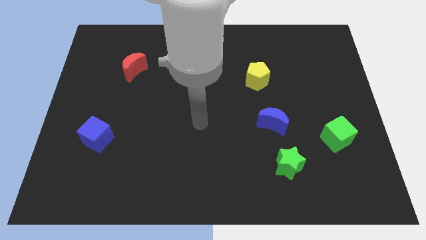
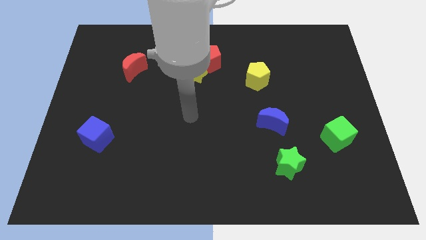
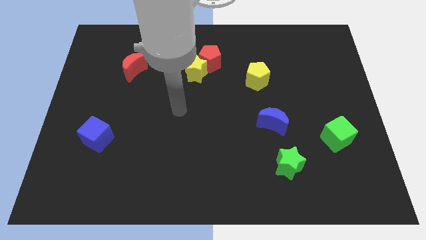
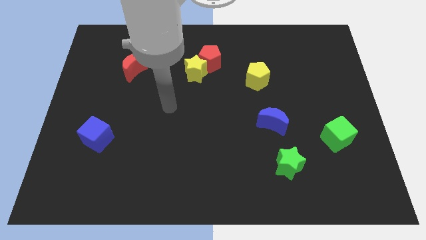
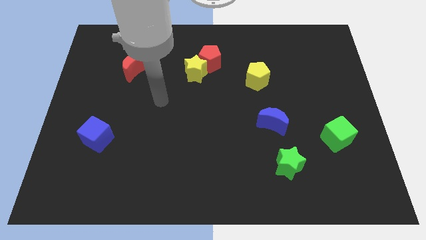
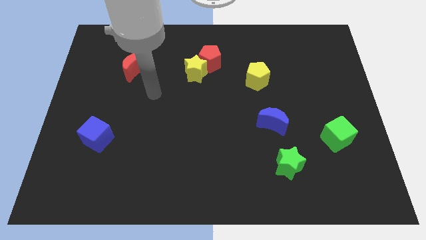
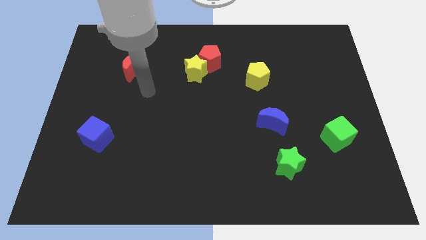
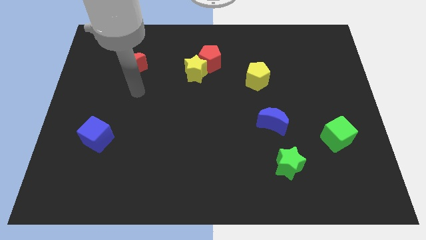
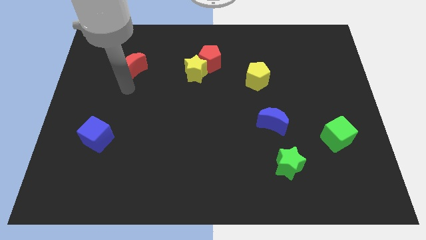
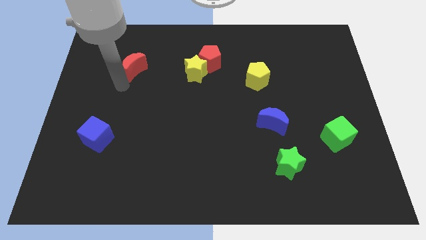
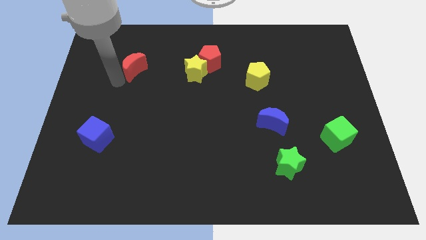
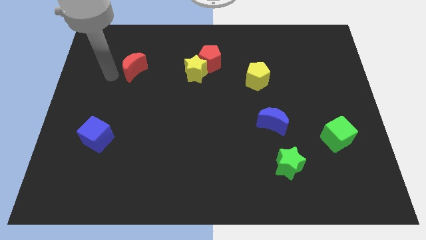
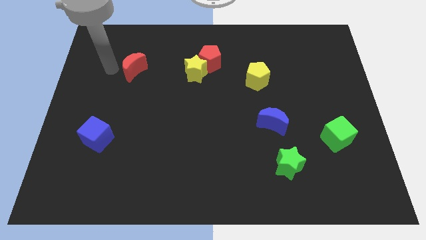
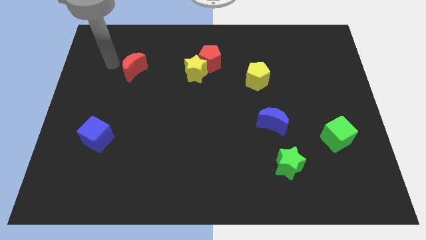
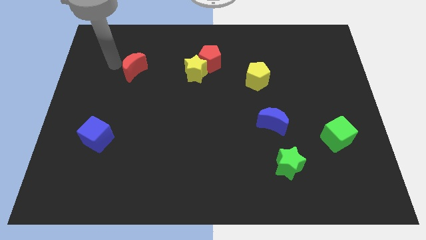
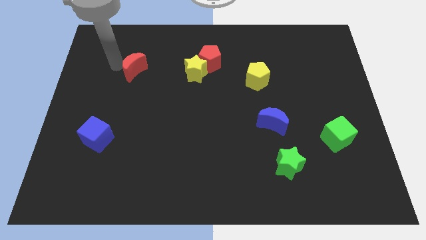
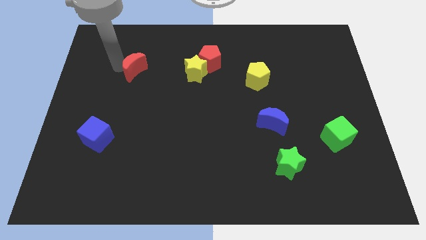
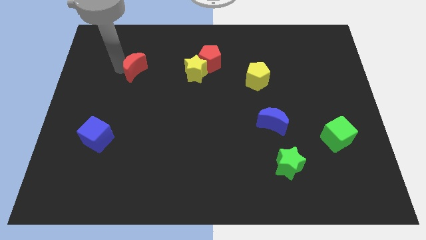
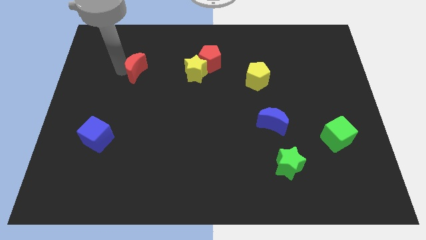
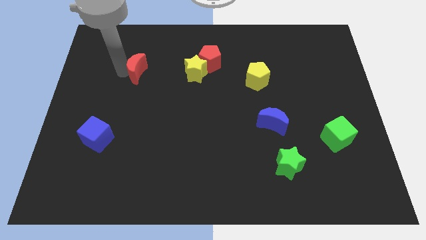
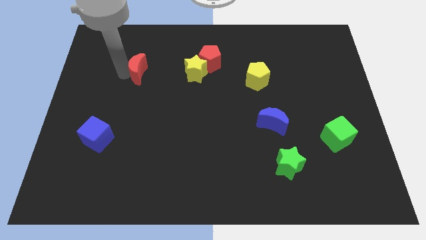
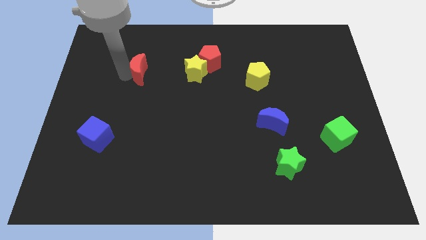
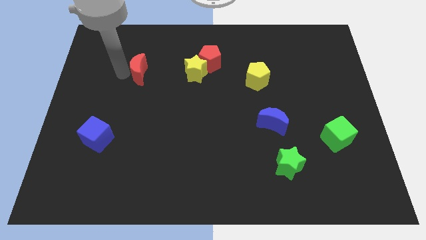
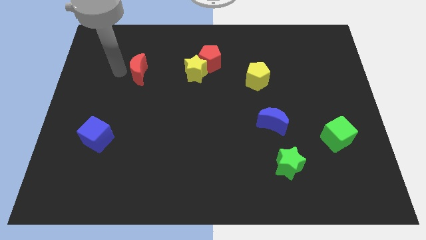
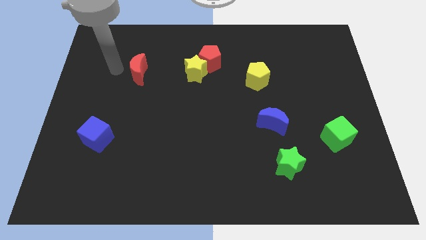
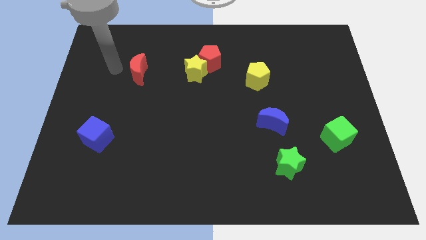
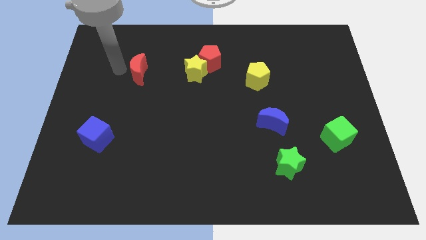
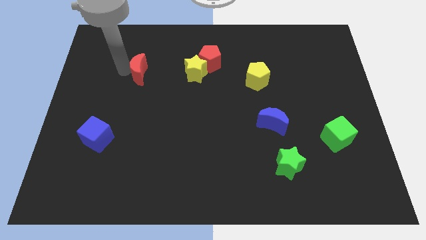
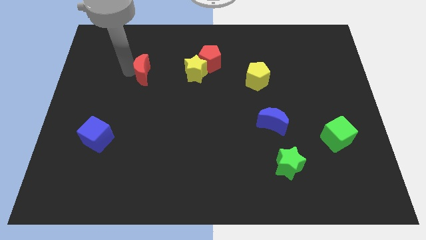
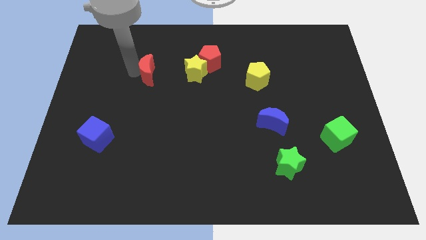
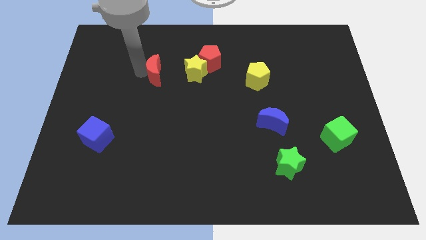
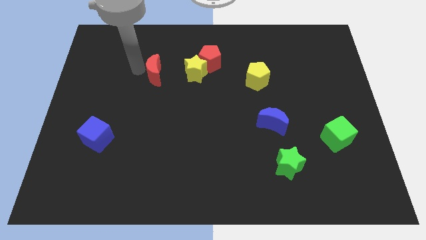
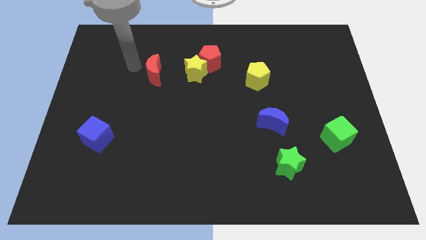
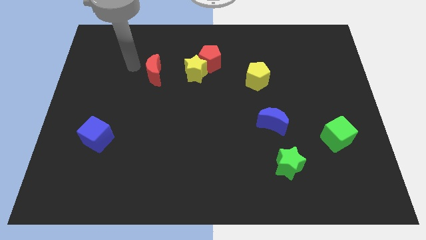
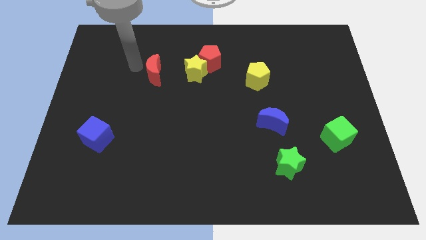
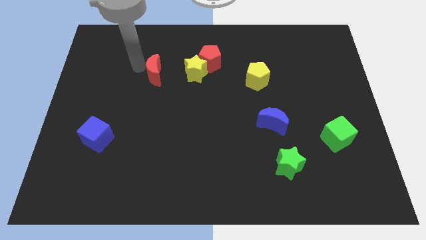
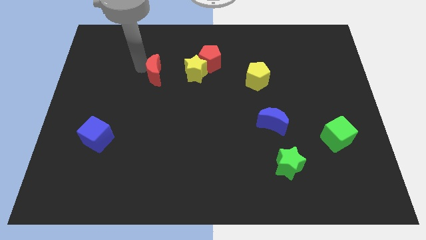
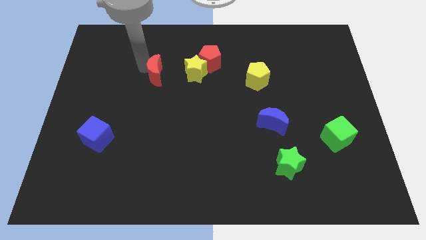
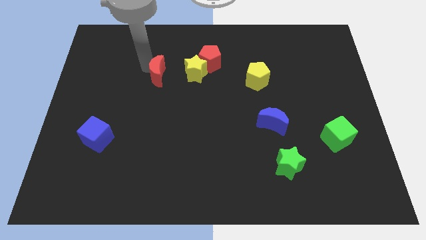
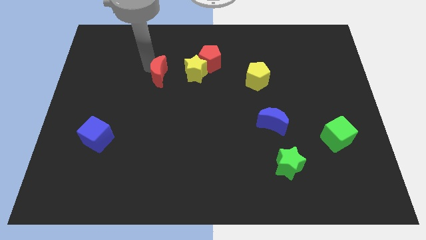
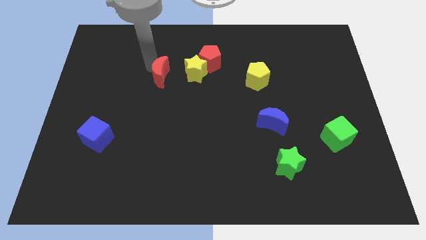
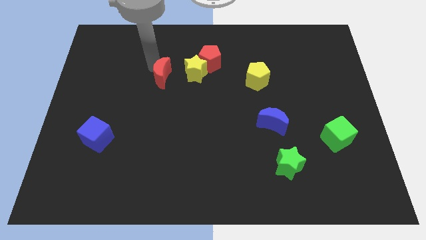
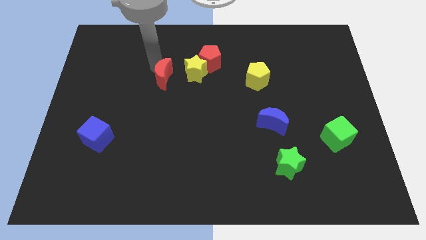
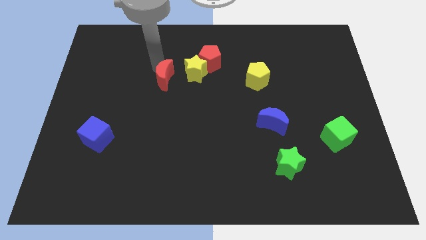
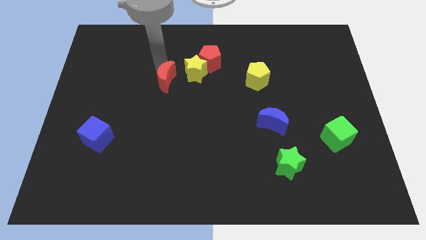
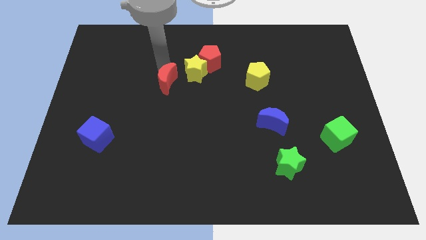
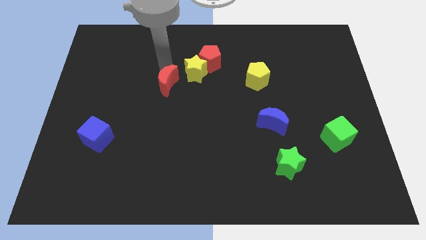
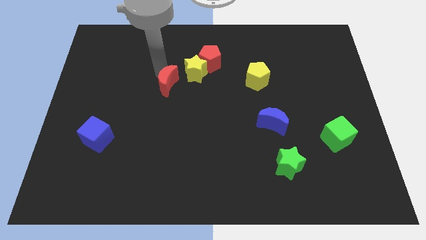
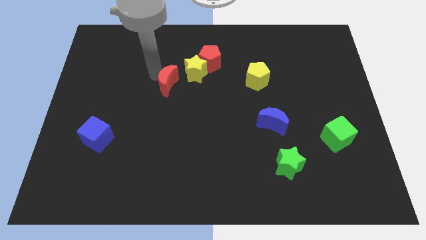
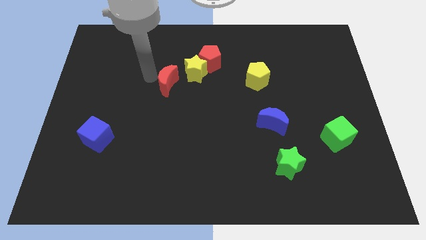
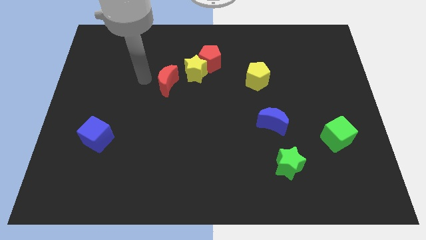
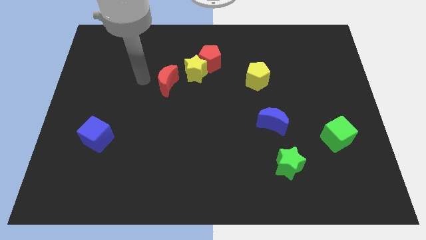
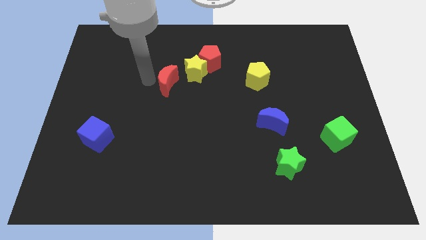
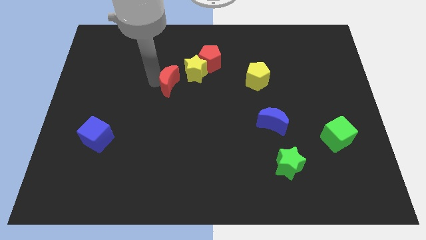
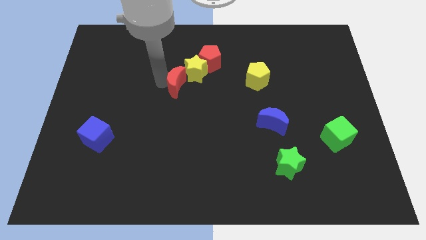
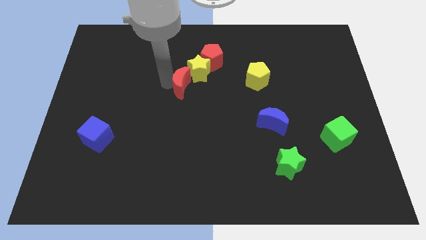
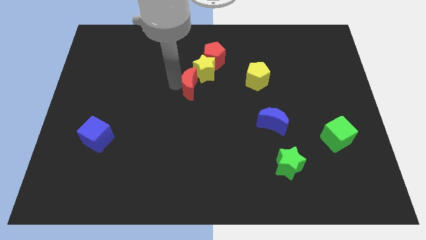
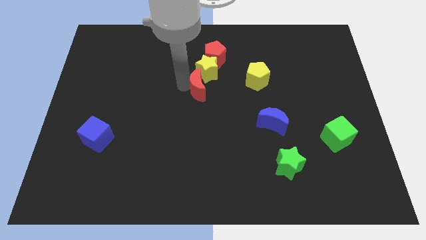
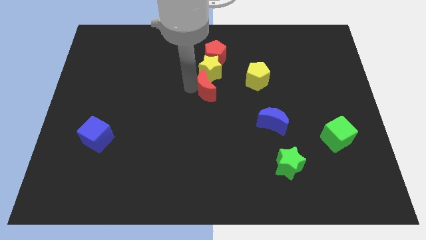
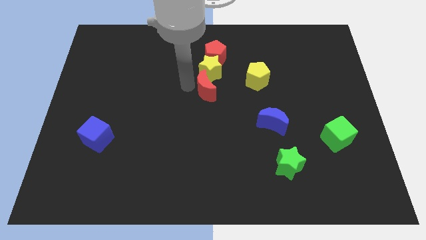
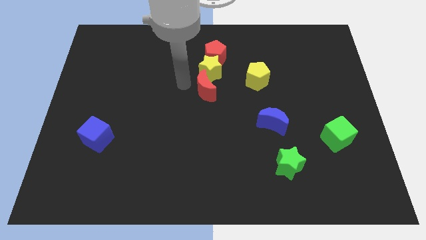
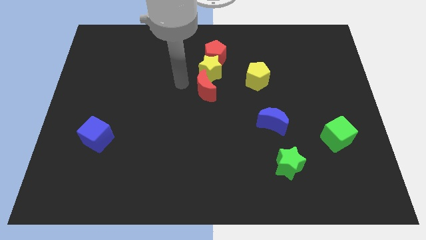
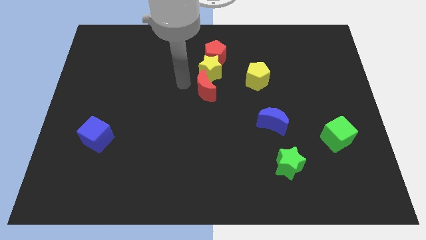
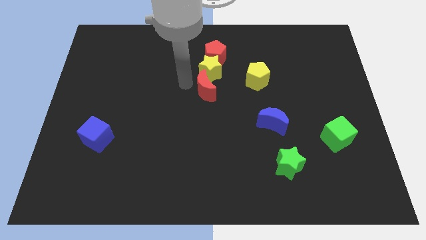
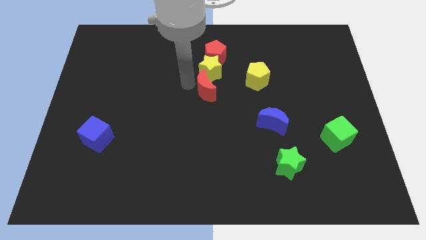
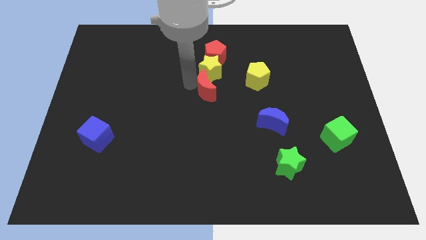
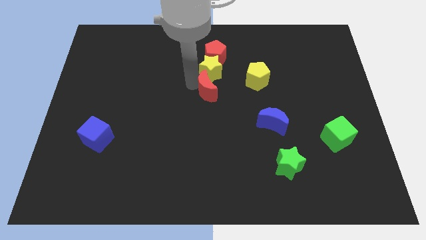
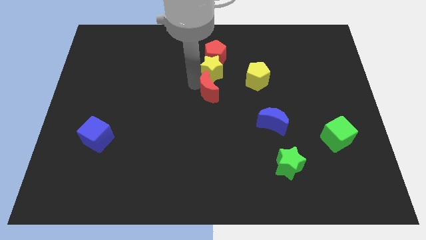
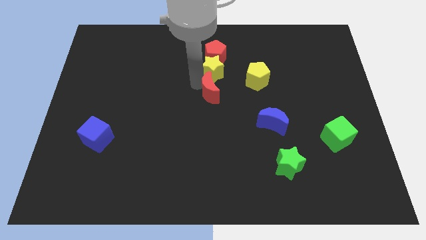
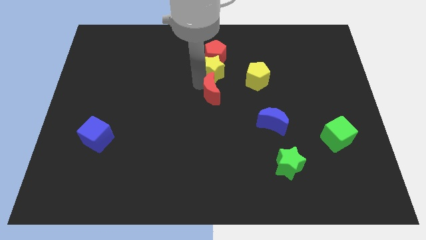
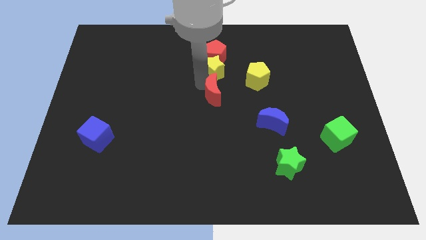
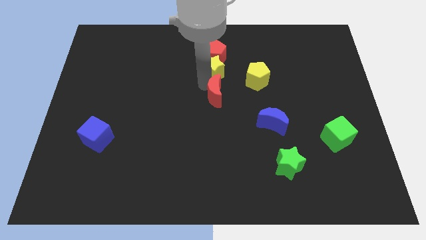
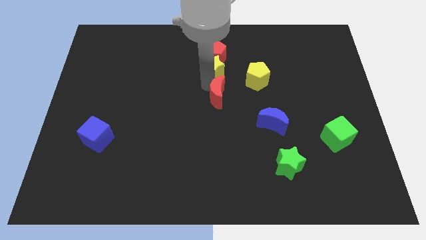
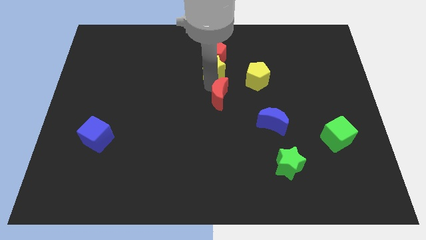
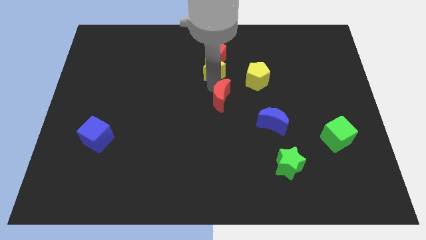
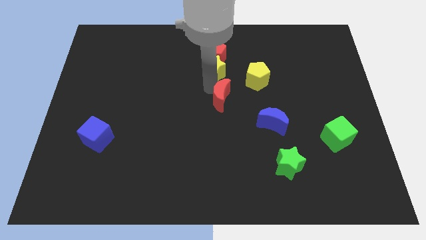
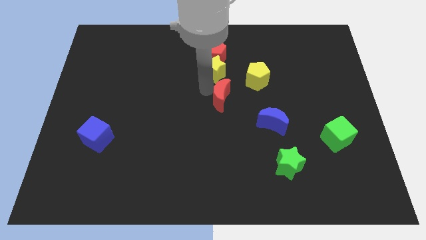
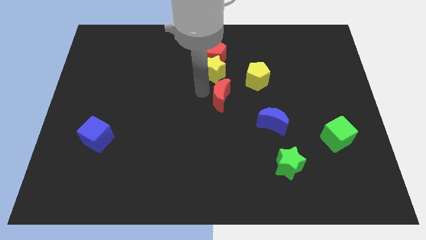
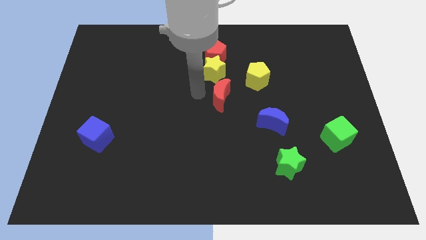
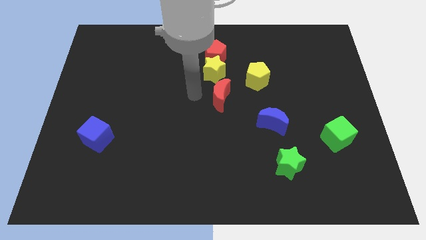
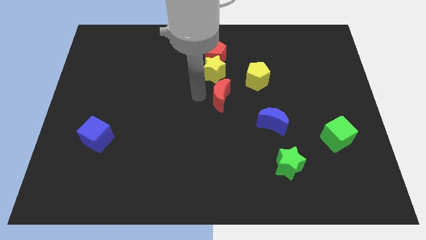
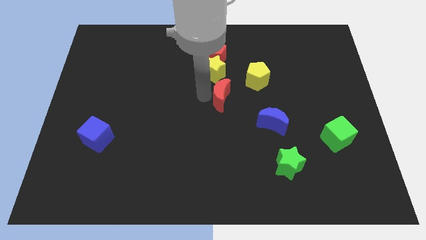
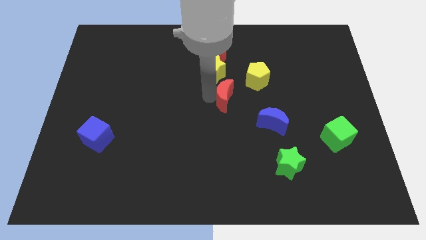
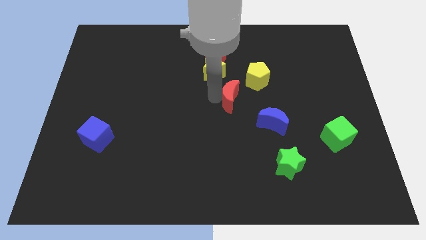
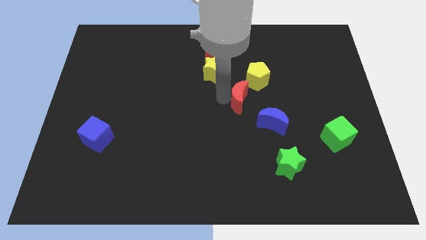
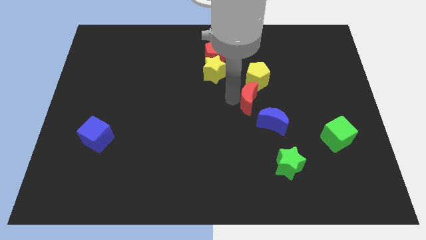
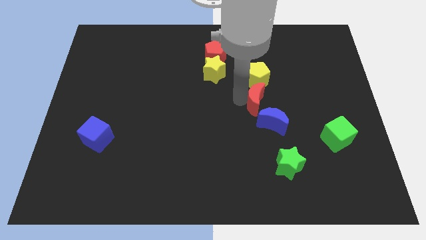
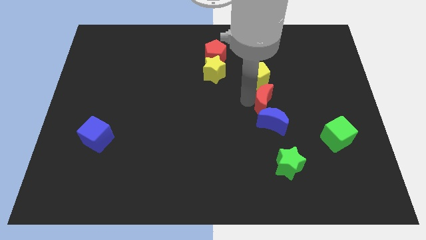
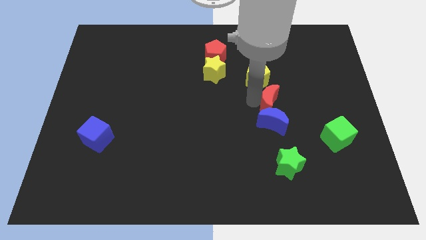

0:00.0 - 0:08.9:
push the red moon to the top right side of the blue moon
